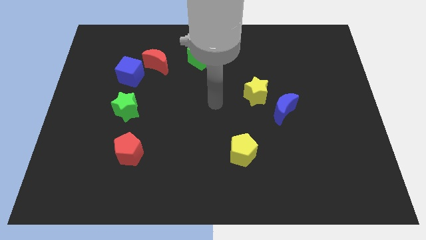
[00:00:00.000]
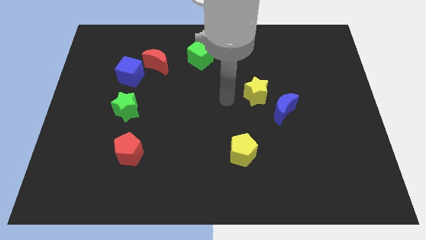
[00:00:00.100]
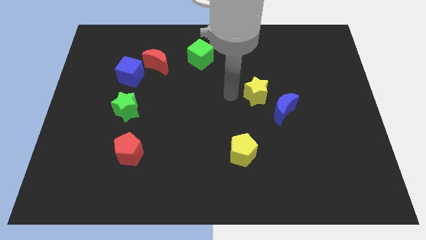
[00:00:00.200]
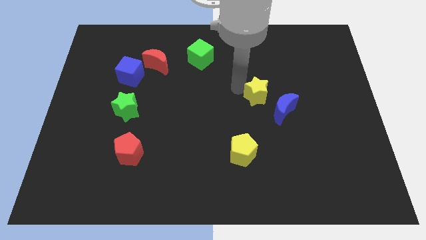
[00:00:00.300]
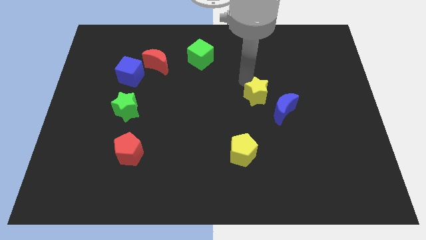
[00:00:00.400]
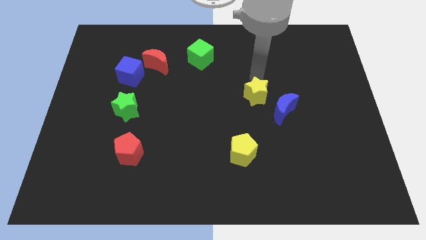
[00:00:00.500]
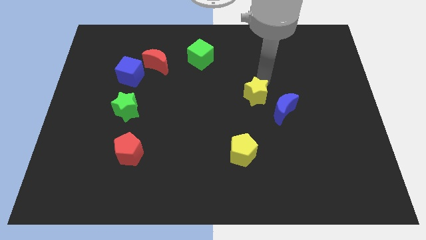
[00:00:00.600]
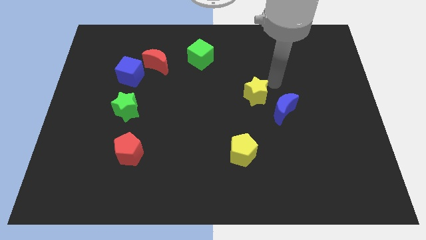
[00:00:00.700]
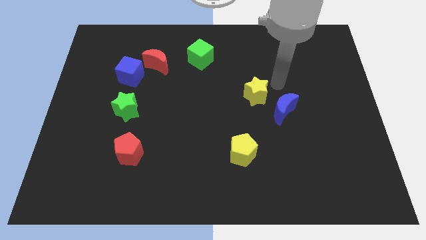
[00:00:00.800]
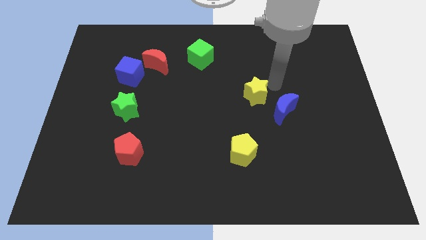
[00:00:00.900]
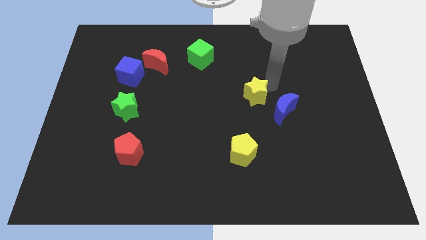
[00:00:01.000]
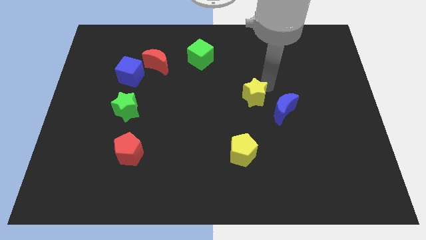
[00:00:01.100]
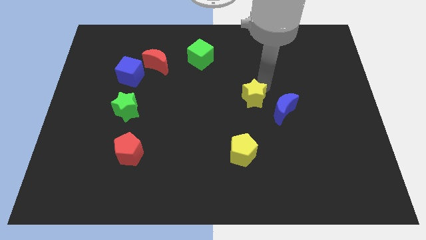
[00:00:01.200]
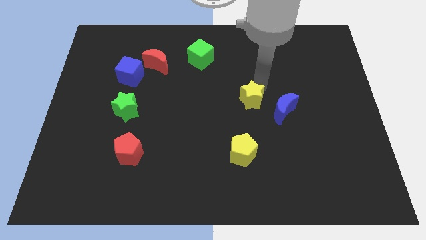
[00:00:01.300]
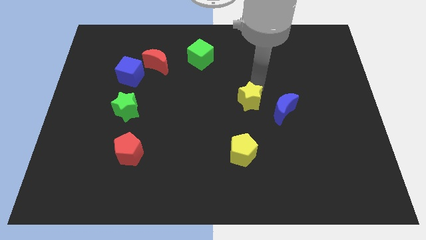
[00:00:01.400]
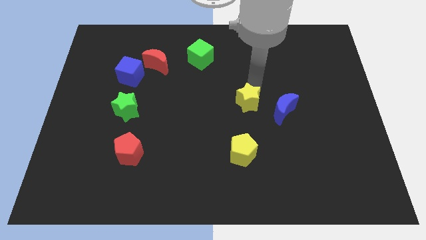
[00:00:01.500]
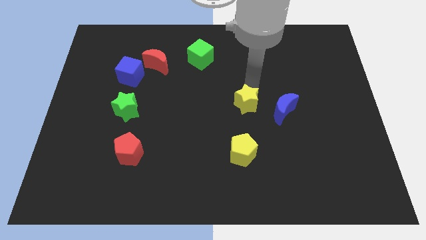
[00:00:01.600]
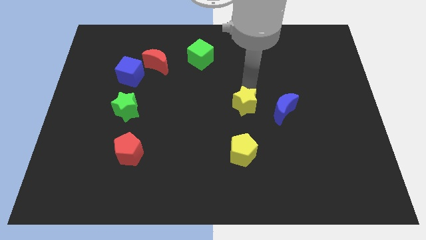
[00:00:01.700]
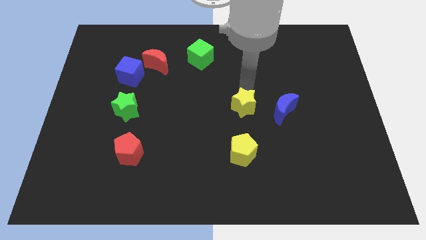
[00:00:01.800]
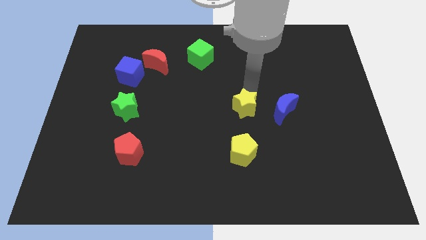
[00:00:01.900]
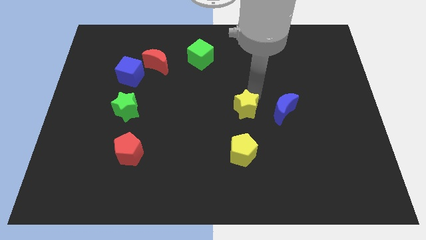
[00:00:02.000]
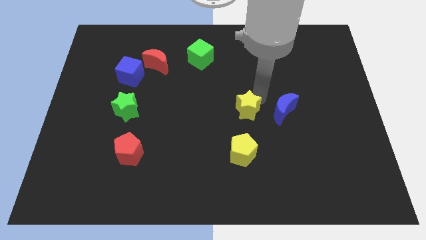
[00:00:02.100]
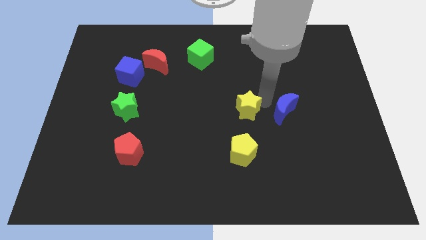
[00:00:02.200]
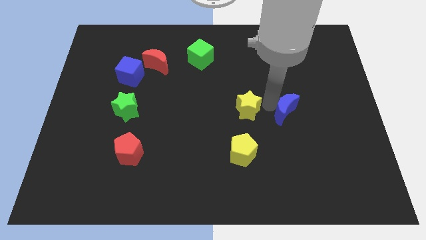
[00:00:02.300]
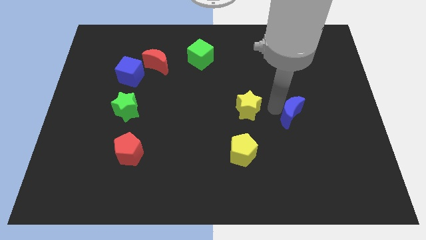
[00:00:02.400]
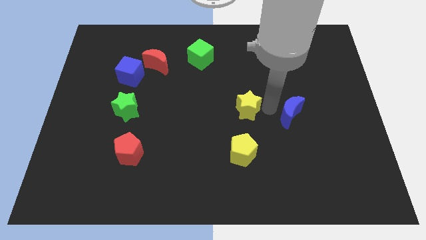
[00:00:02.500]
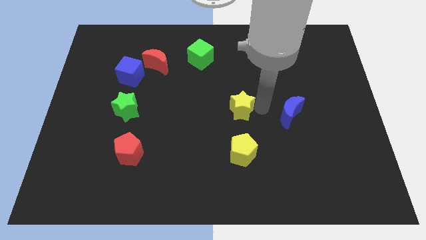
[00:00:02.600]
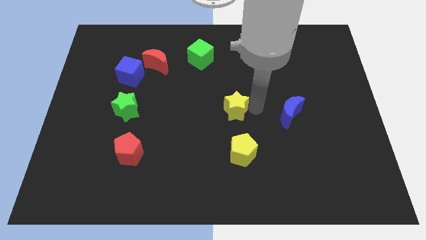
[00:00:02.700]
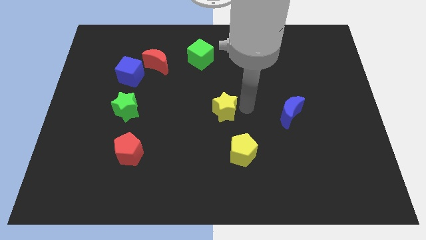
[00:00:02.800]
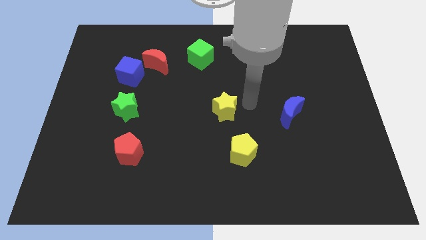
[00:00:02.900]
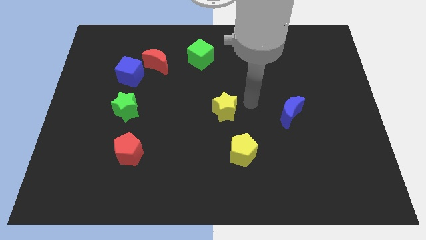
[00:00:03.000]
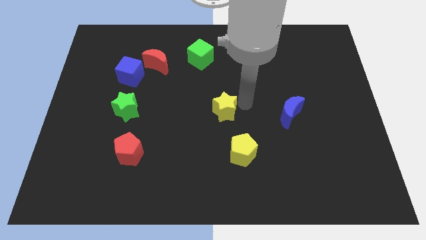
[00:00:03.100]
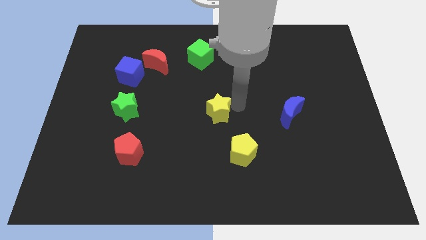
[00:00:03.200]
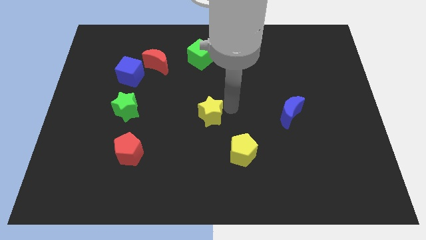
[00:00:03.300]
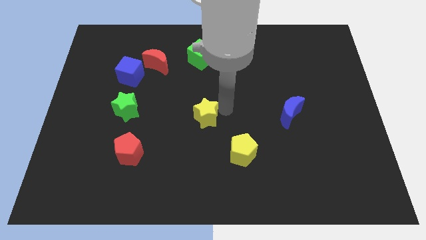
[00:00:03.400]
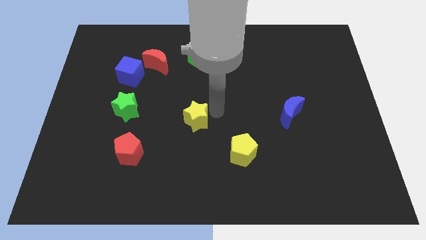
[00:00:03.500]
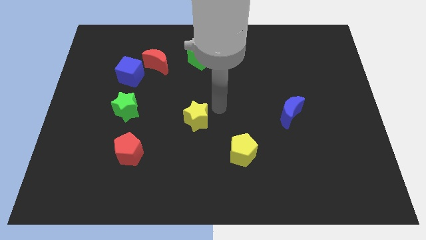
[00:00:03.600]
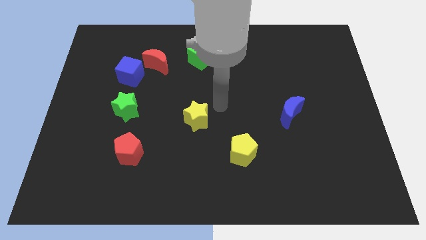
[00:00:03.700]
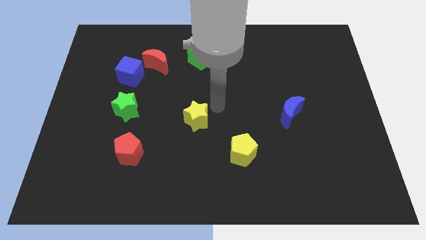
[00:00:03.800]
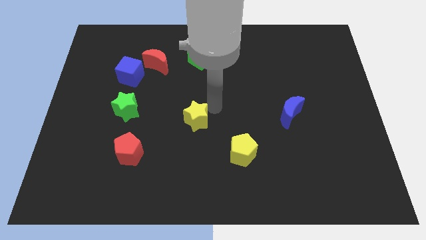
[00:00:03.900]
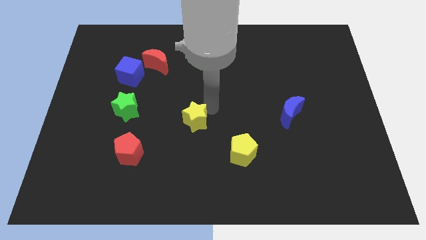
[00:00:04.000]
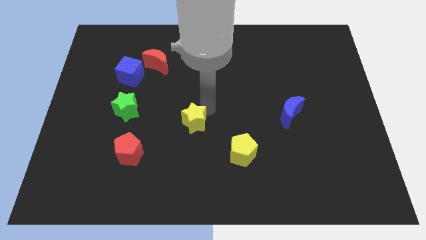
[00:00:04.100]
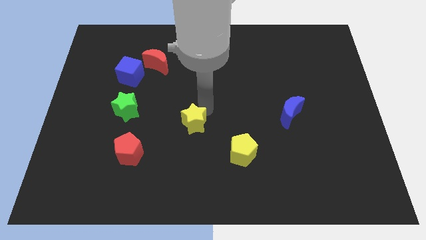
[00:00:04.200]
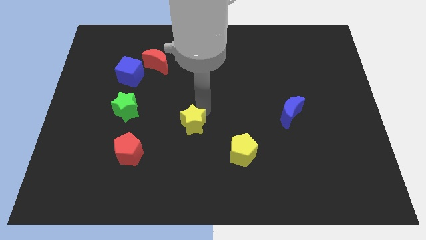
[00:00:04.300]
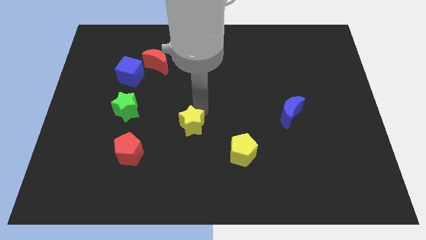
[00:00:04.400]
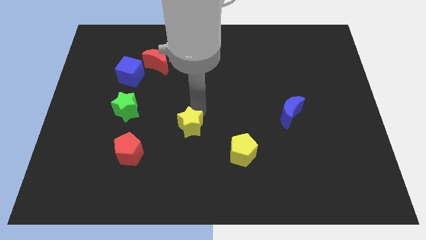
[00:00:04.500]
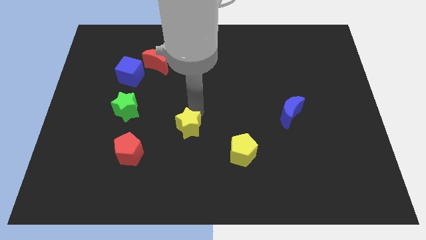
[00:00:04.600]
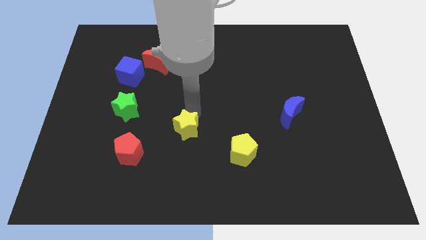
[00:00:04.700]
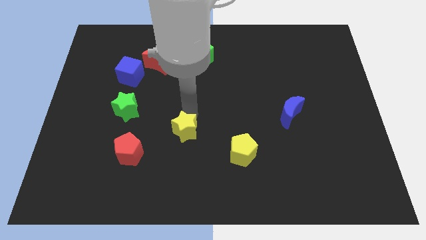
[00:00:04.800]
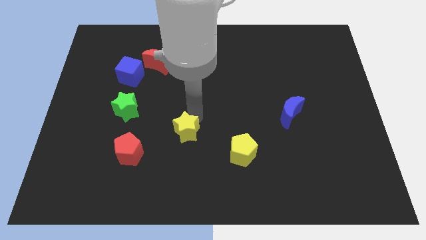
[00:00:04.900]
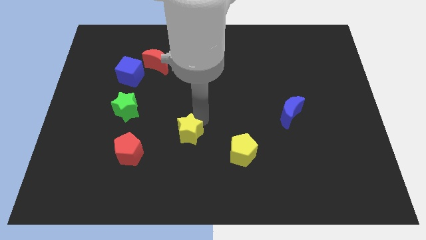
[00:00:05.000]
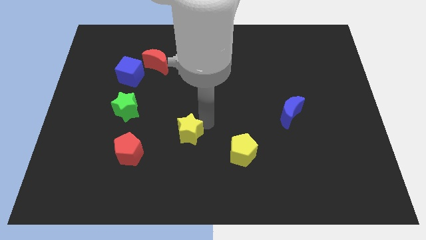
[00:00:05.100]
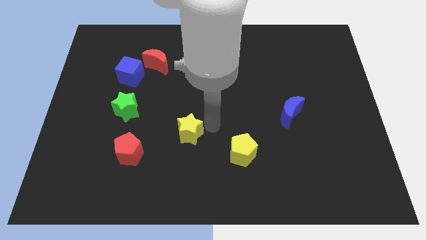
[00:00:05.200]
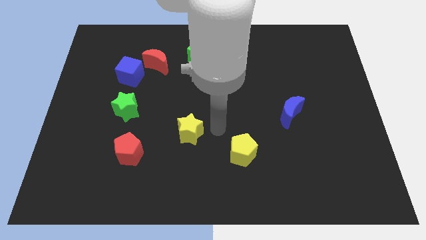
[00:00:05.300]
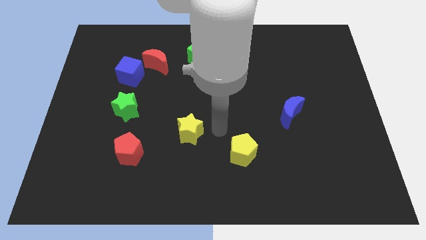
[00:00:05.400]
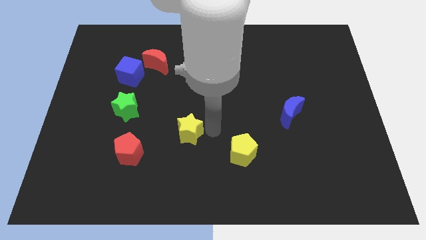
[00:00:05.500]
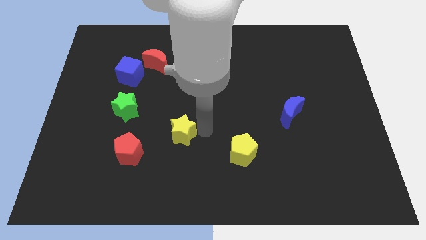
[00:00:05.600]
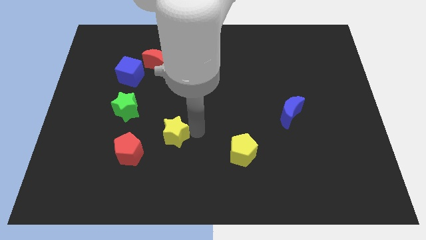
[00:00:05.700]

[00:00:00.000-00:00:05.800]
put the yellow star diagonally up and to the right of the red pentagon
